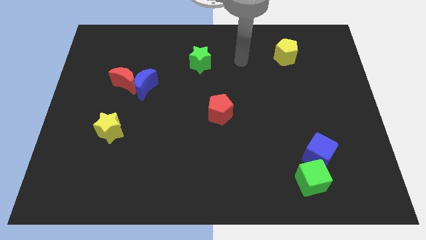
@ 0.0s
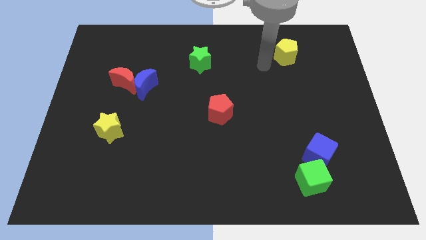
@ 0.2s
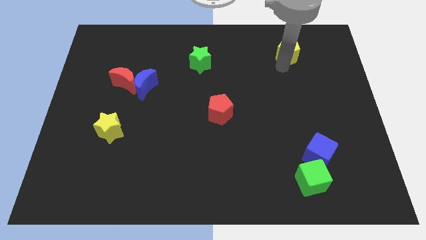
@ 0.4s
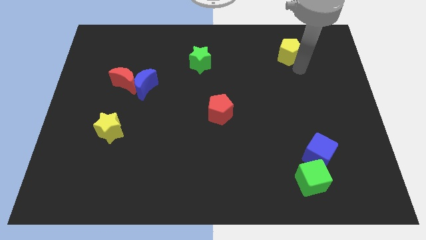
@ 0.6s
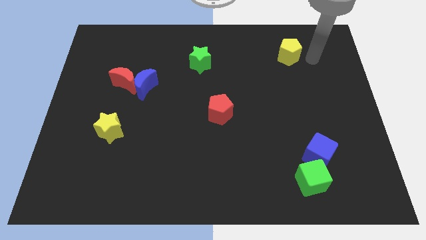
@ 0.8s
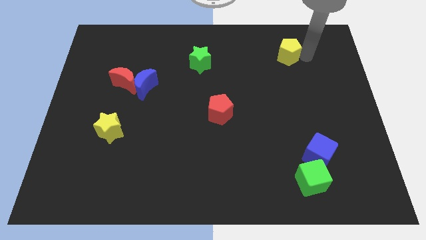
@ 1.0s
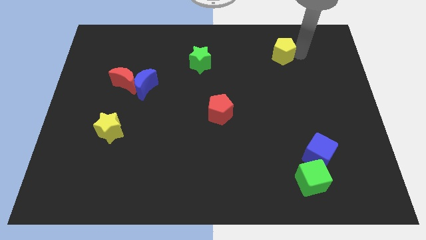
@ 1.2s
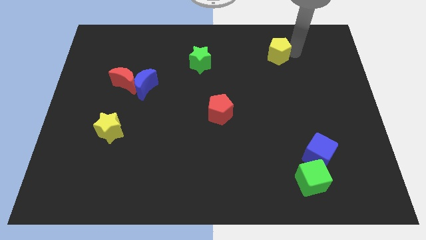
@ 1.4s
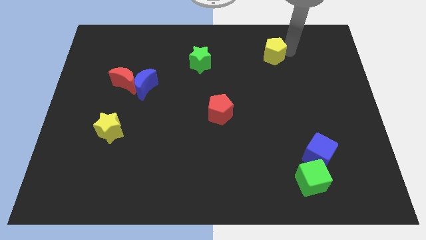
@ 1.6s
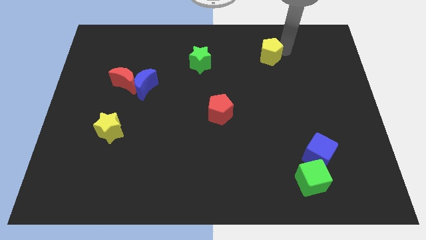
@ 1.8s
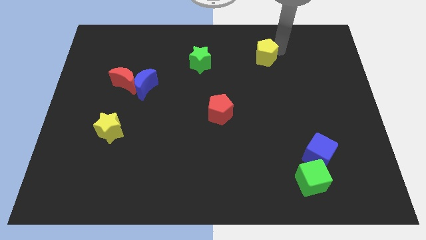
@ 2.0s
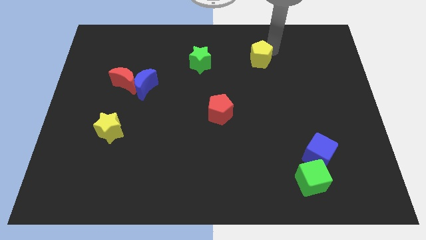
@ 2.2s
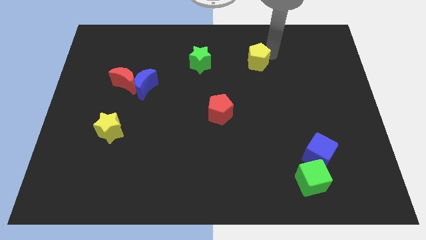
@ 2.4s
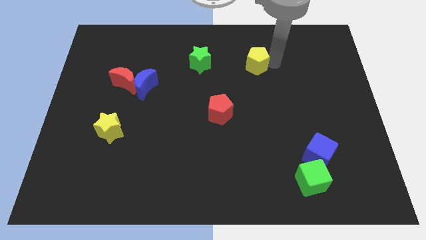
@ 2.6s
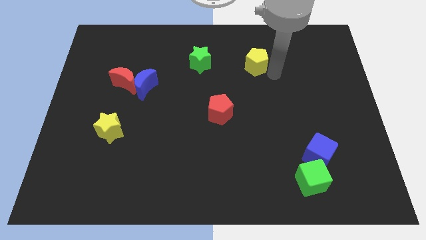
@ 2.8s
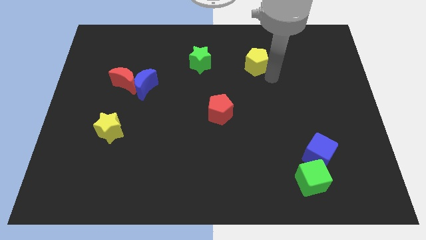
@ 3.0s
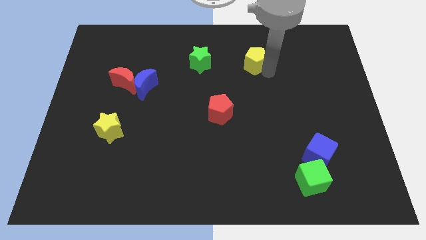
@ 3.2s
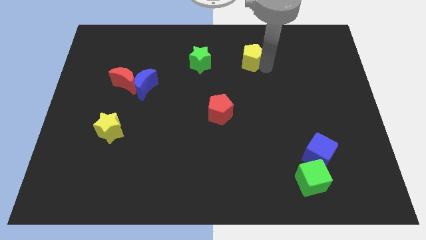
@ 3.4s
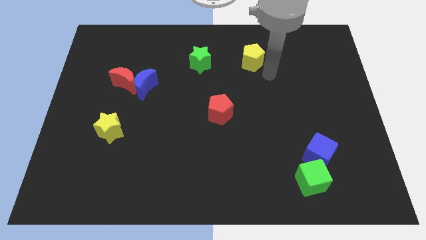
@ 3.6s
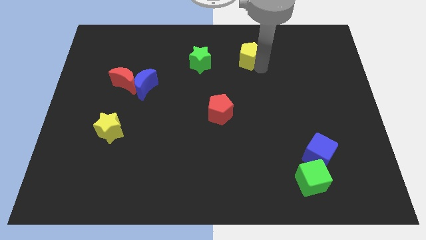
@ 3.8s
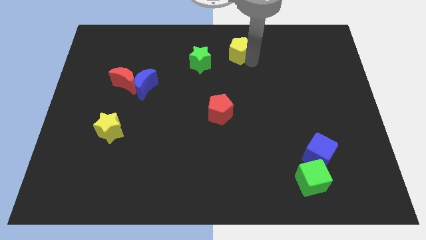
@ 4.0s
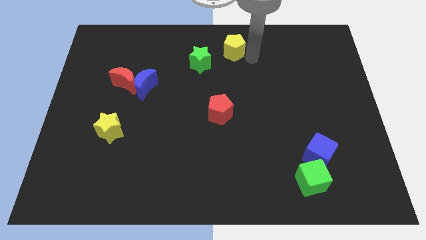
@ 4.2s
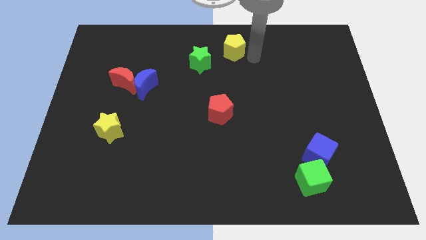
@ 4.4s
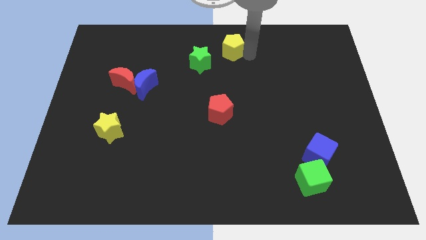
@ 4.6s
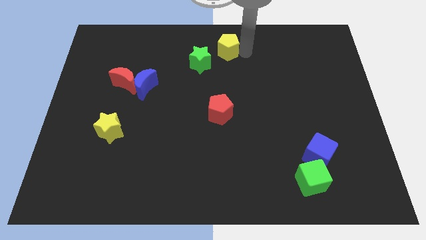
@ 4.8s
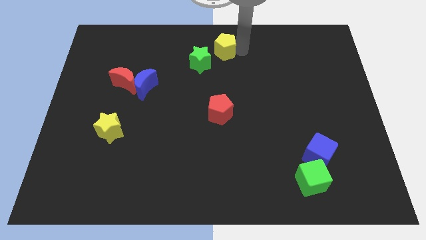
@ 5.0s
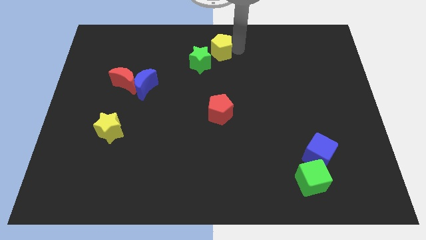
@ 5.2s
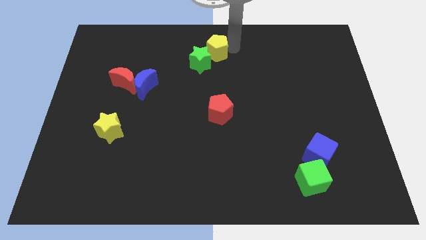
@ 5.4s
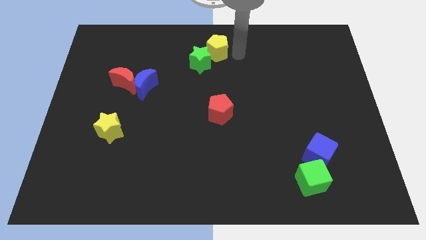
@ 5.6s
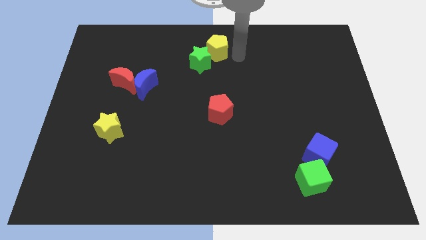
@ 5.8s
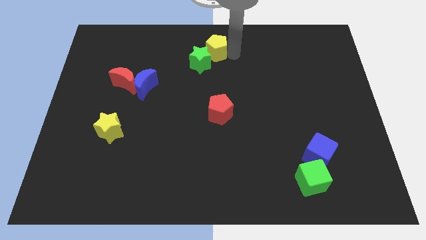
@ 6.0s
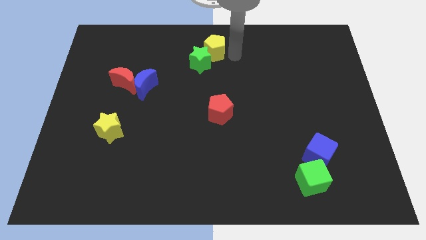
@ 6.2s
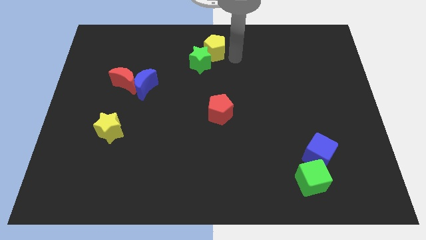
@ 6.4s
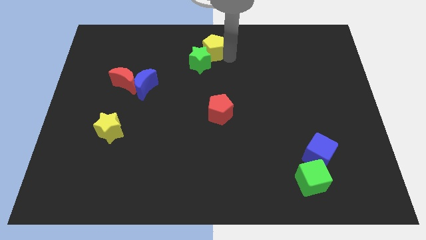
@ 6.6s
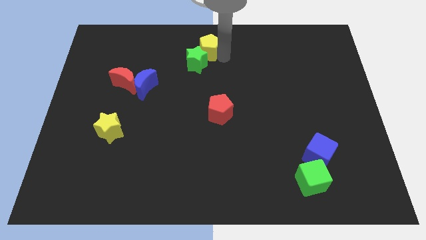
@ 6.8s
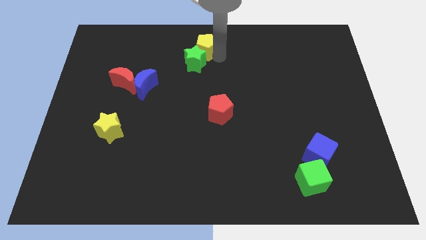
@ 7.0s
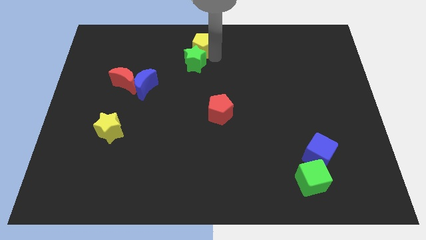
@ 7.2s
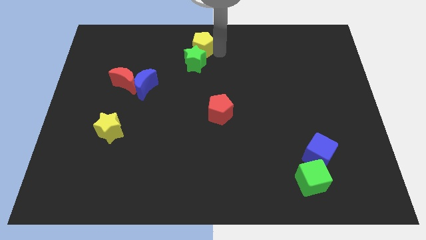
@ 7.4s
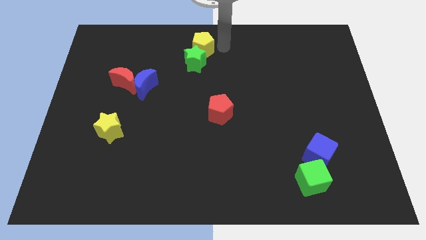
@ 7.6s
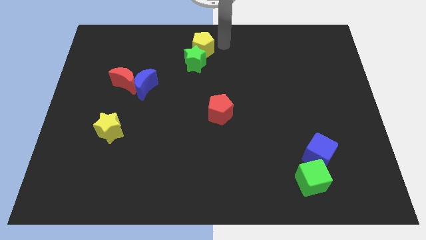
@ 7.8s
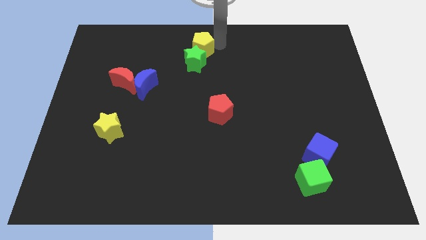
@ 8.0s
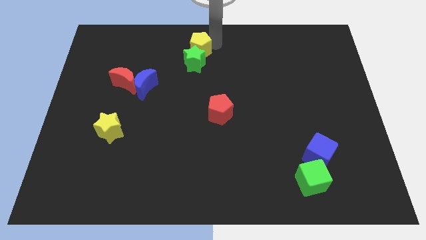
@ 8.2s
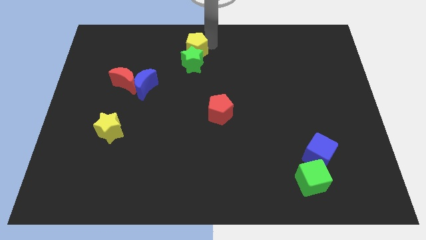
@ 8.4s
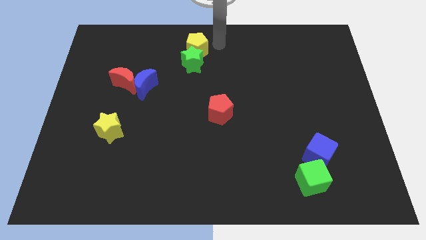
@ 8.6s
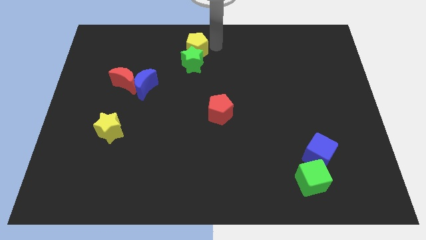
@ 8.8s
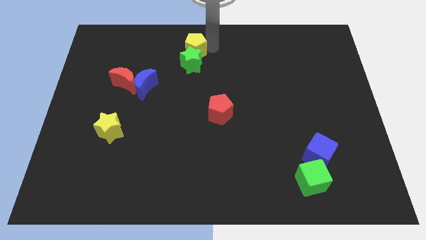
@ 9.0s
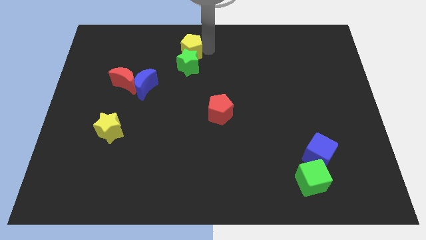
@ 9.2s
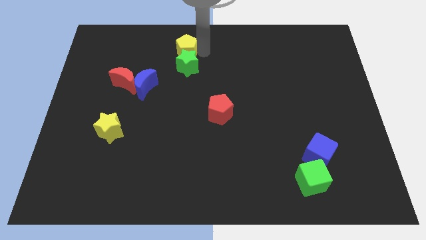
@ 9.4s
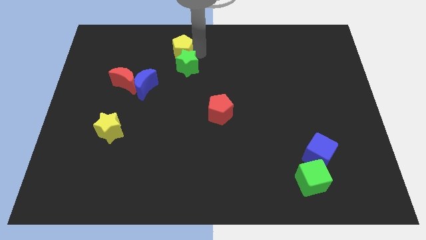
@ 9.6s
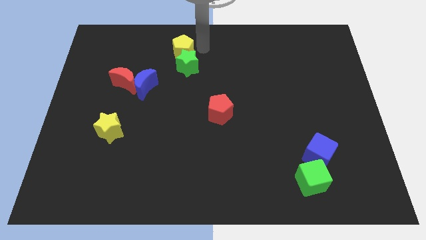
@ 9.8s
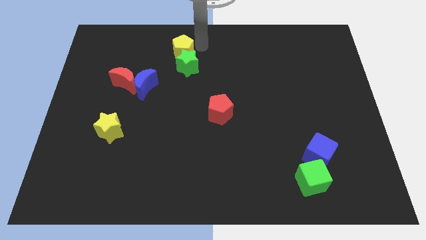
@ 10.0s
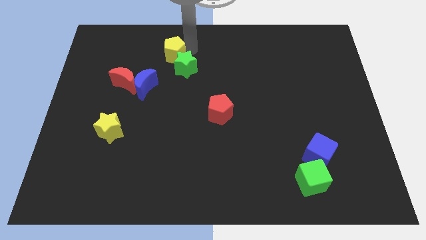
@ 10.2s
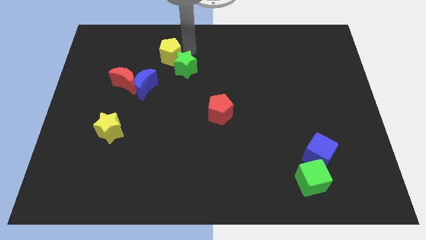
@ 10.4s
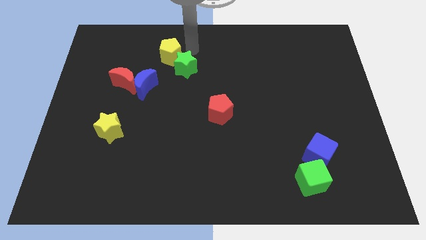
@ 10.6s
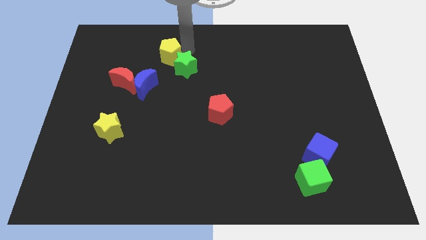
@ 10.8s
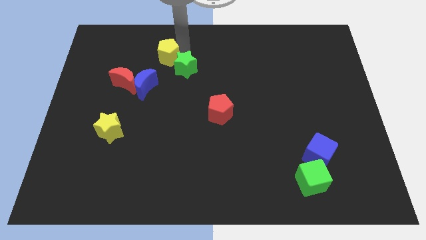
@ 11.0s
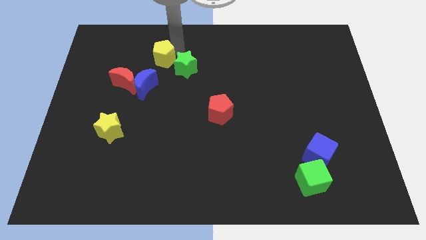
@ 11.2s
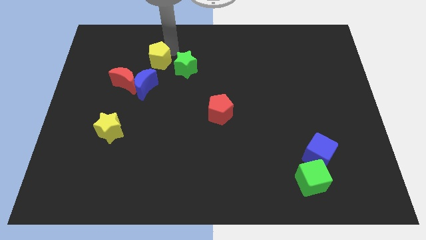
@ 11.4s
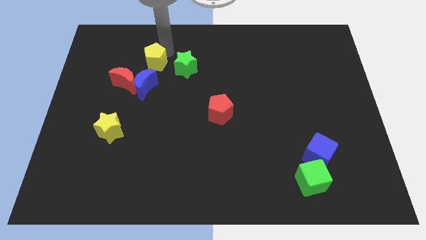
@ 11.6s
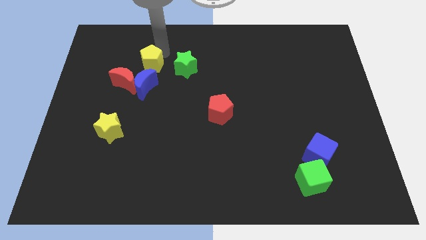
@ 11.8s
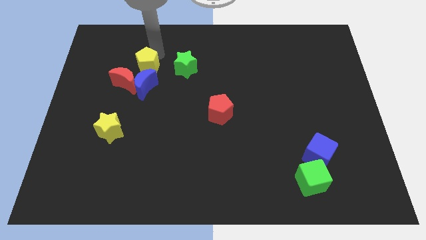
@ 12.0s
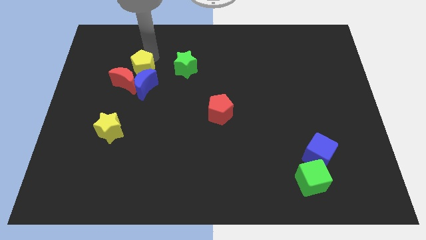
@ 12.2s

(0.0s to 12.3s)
slide the yellow pentagon close to the red moon
